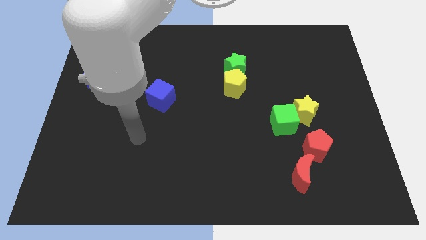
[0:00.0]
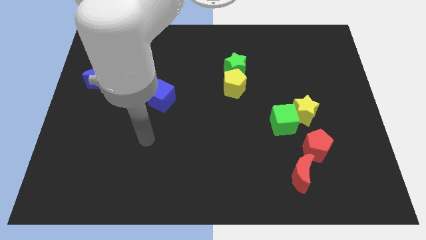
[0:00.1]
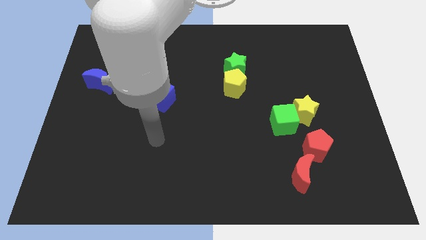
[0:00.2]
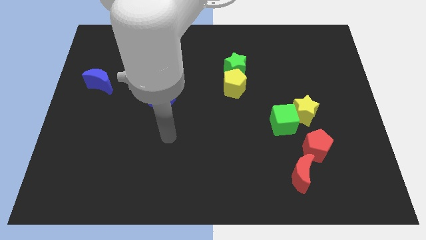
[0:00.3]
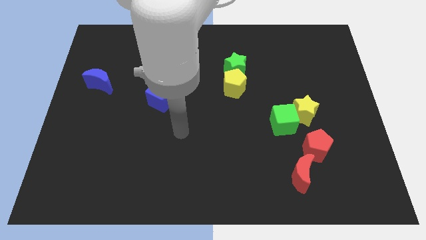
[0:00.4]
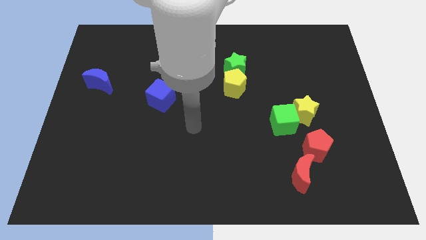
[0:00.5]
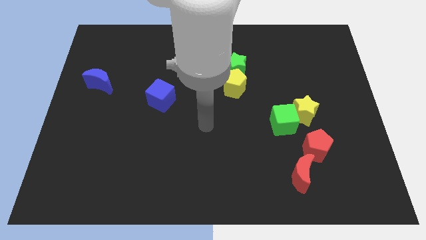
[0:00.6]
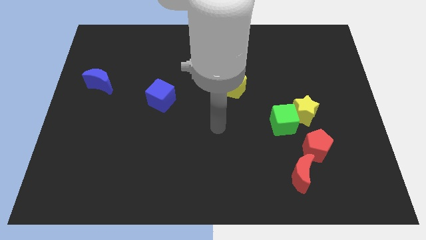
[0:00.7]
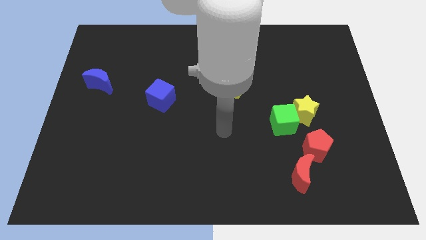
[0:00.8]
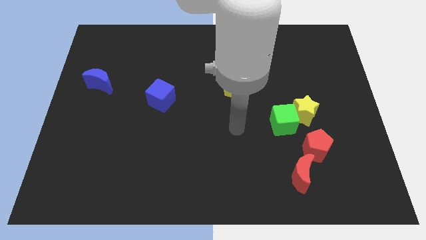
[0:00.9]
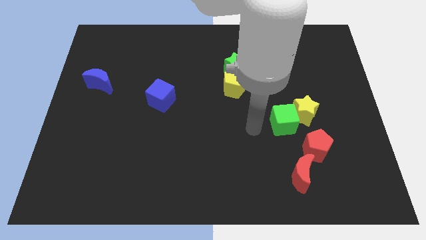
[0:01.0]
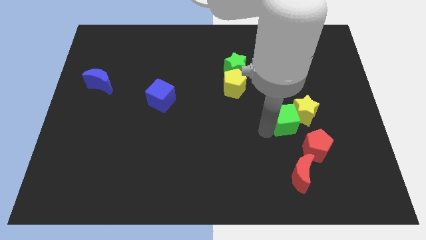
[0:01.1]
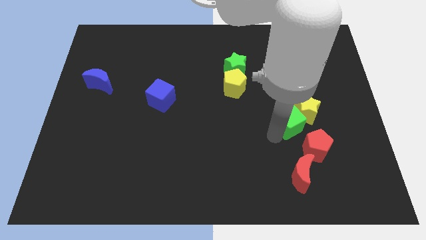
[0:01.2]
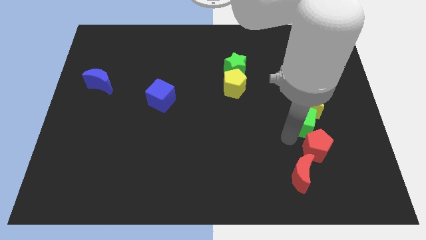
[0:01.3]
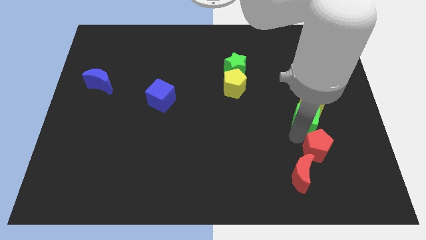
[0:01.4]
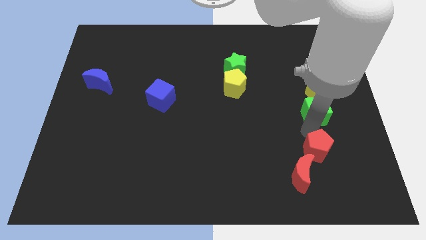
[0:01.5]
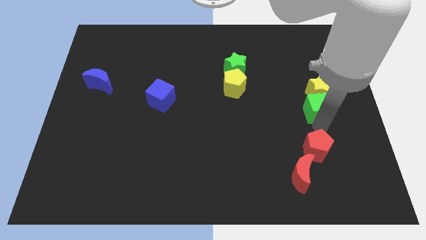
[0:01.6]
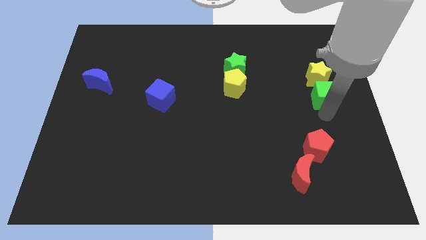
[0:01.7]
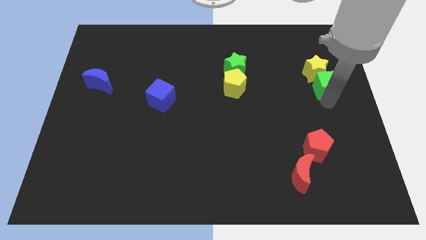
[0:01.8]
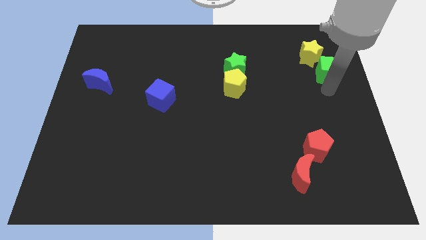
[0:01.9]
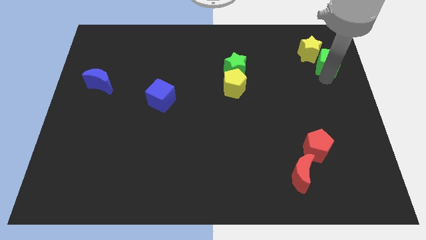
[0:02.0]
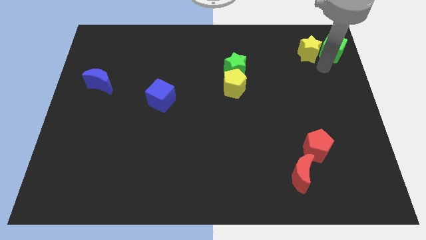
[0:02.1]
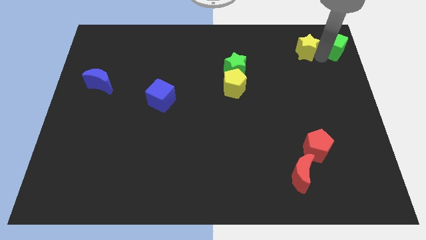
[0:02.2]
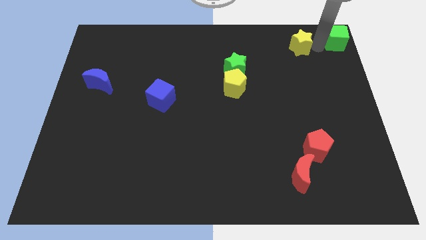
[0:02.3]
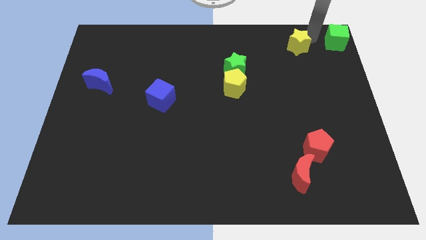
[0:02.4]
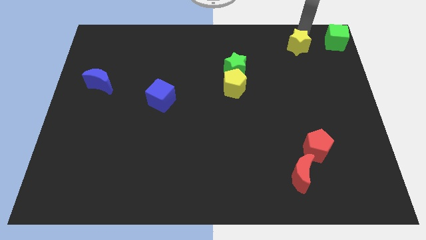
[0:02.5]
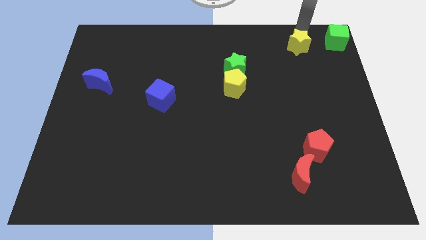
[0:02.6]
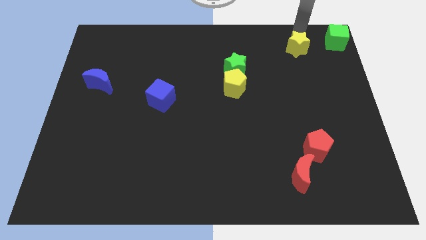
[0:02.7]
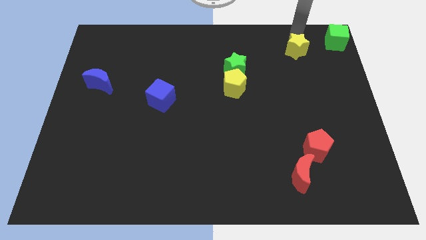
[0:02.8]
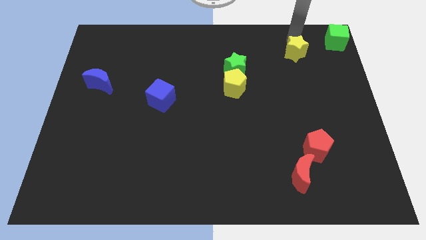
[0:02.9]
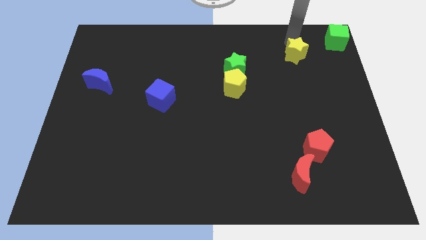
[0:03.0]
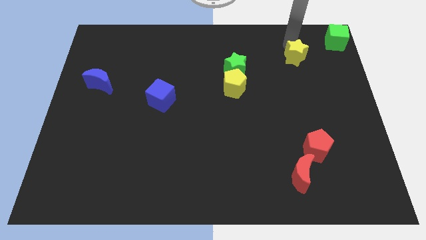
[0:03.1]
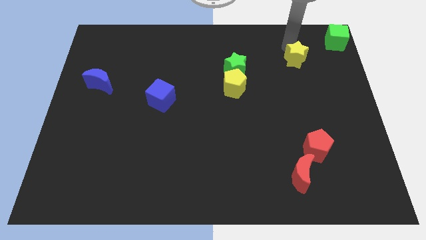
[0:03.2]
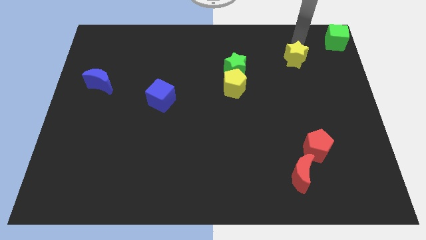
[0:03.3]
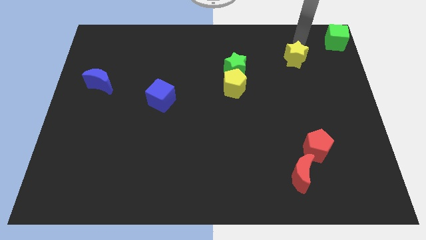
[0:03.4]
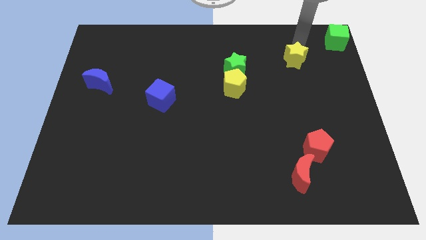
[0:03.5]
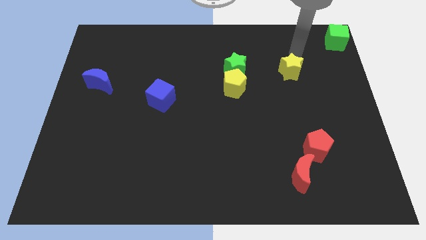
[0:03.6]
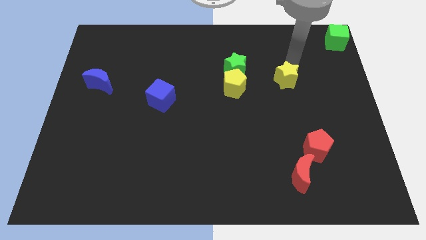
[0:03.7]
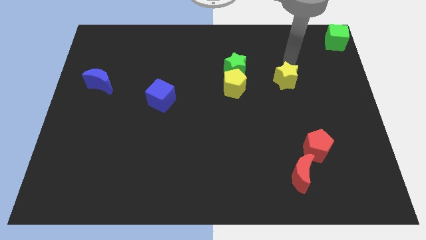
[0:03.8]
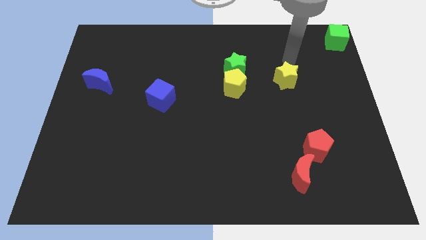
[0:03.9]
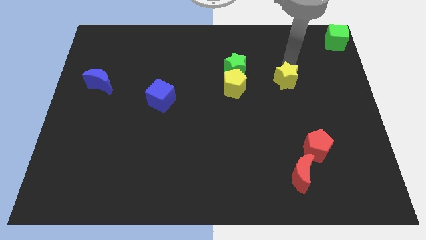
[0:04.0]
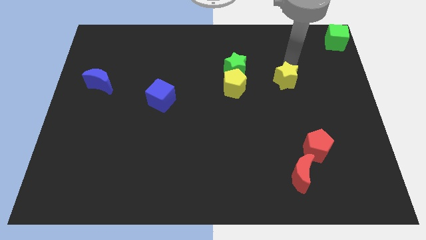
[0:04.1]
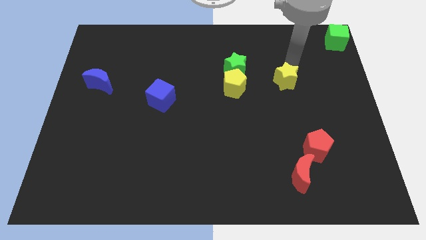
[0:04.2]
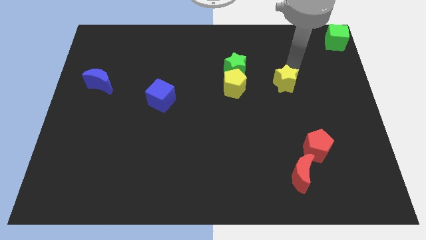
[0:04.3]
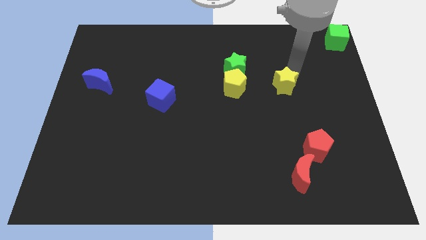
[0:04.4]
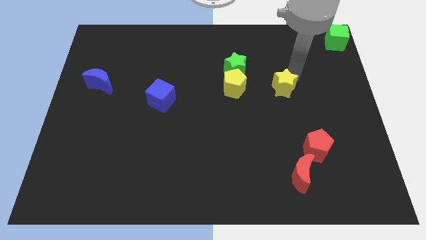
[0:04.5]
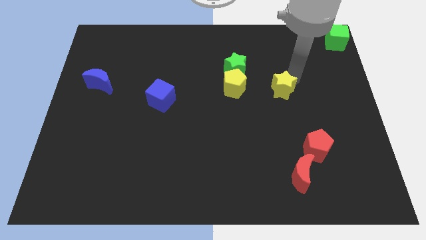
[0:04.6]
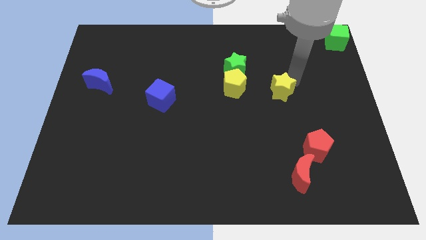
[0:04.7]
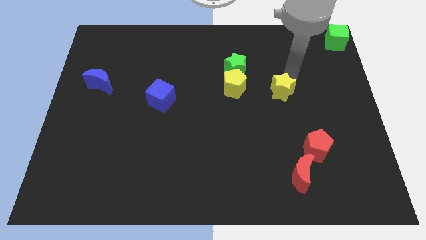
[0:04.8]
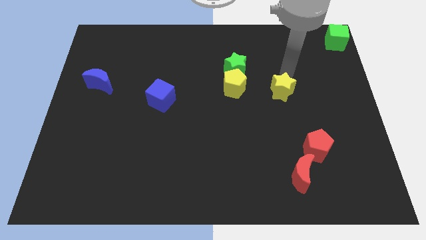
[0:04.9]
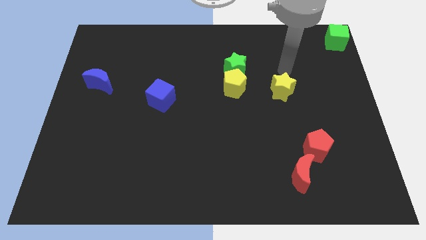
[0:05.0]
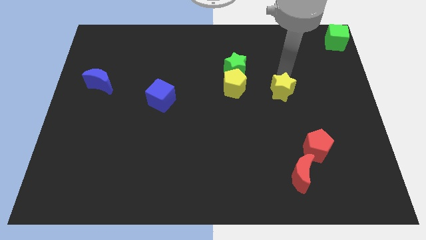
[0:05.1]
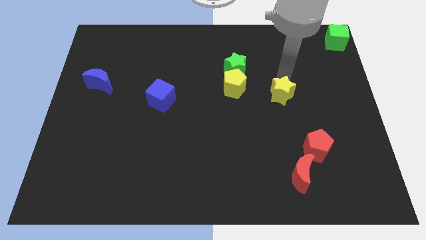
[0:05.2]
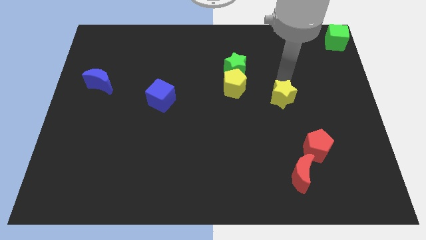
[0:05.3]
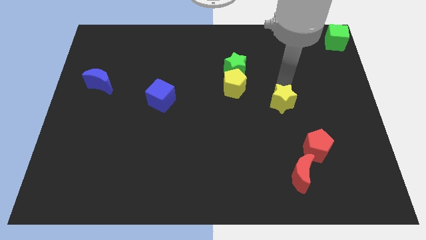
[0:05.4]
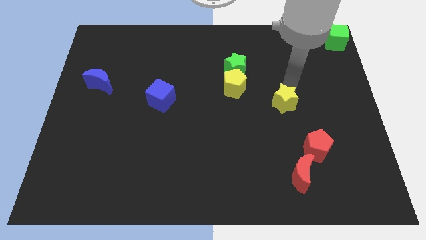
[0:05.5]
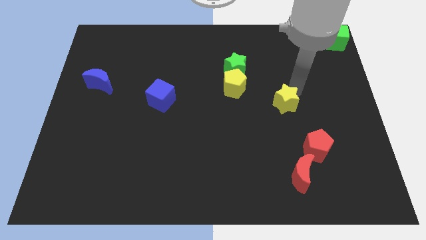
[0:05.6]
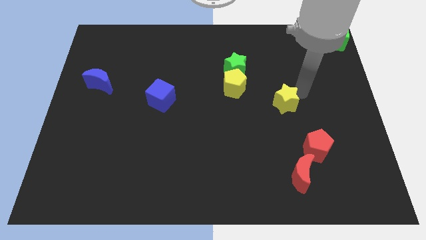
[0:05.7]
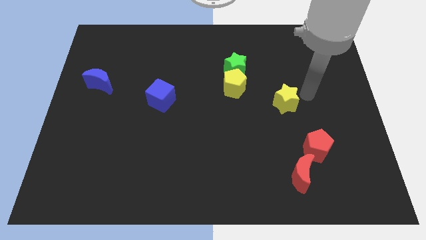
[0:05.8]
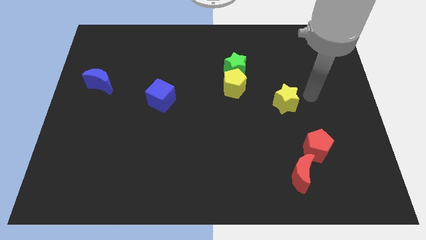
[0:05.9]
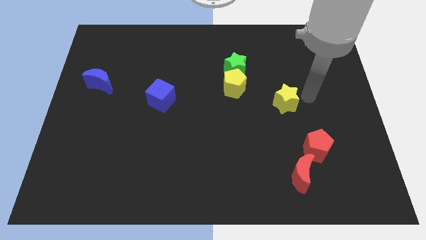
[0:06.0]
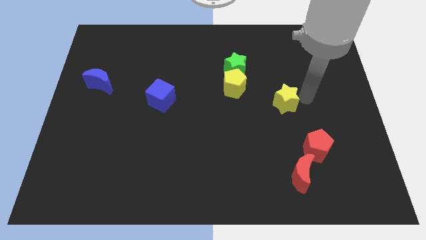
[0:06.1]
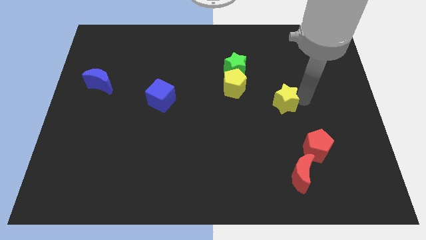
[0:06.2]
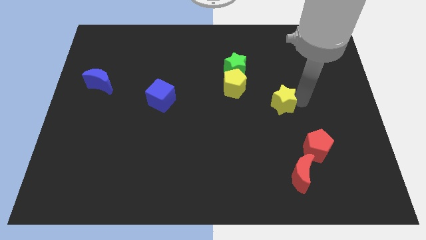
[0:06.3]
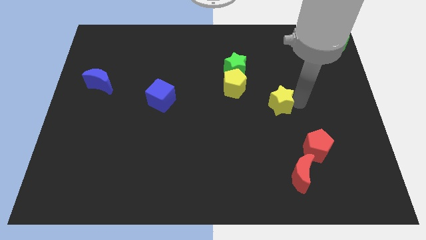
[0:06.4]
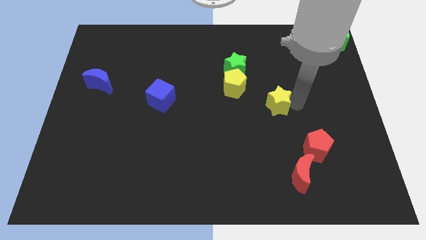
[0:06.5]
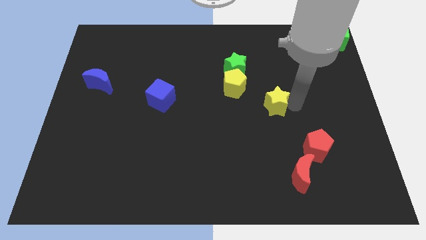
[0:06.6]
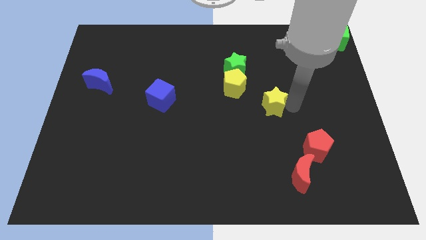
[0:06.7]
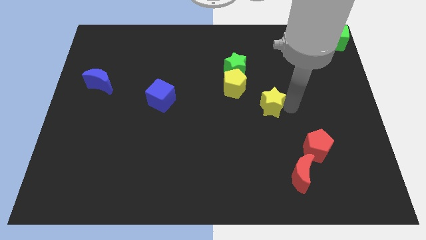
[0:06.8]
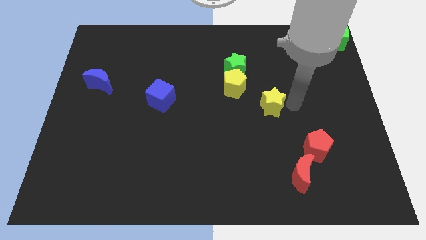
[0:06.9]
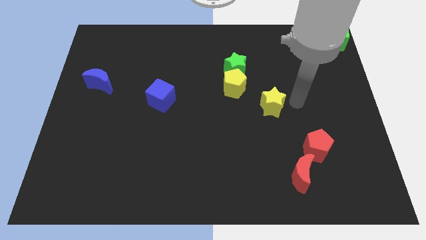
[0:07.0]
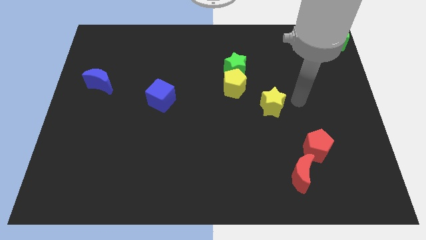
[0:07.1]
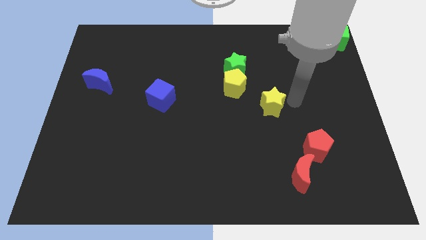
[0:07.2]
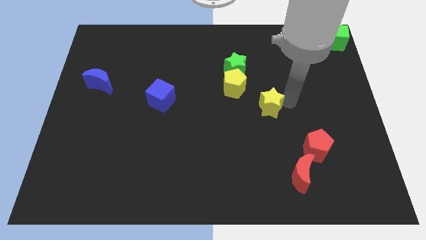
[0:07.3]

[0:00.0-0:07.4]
move the yellow star to the left somewhat

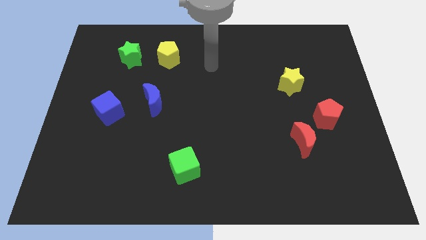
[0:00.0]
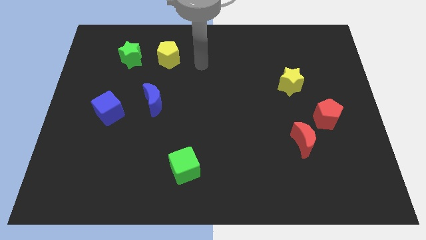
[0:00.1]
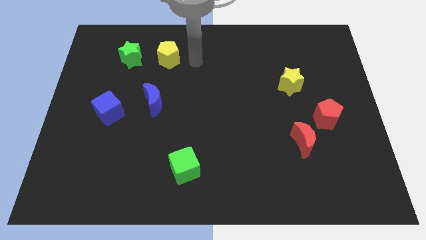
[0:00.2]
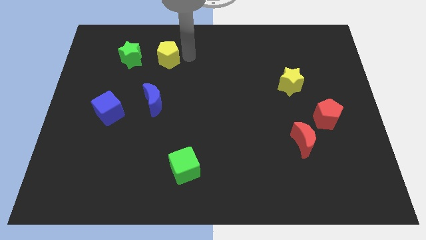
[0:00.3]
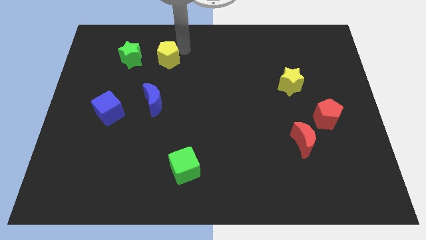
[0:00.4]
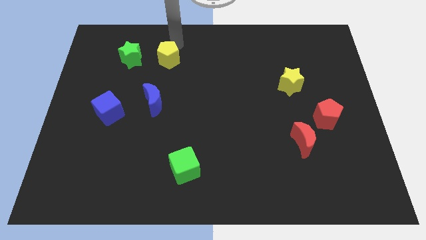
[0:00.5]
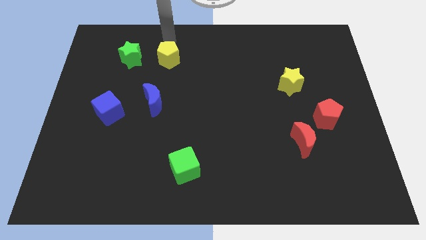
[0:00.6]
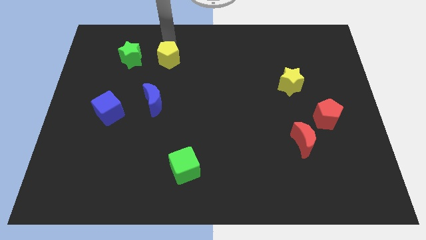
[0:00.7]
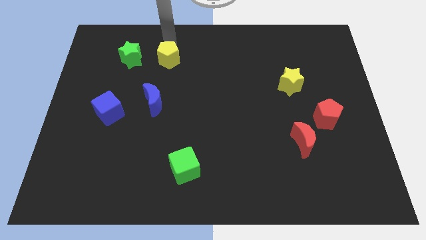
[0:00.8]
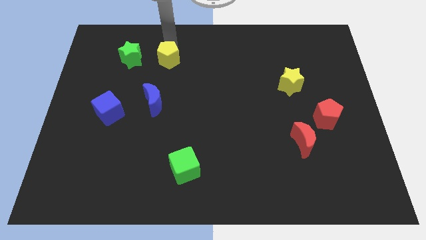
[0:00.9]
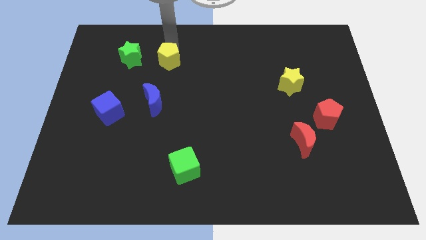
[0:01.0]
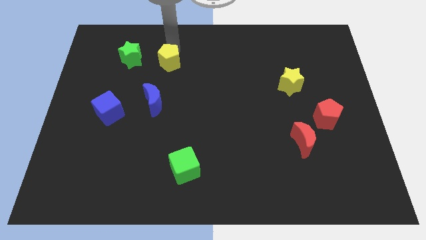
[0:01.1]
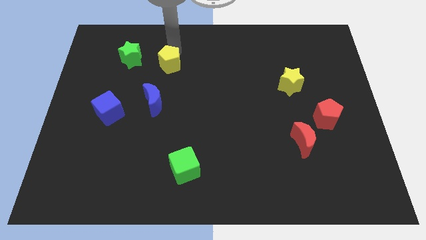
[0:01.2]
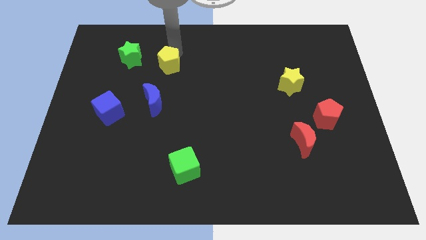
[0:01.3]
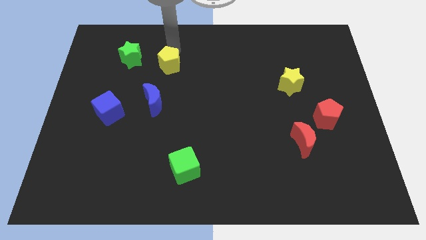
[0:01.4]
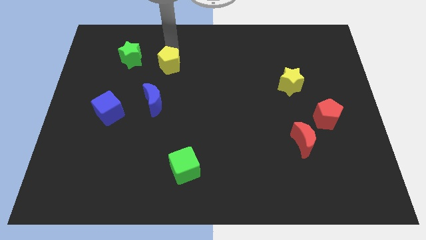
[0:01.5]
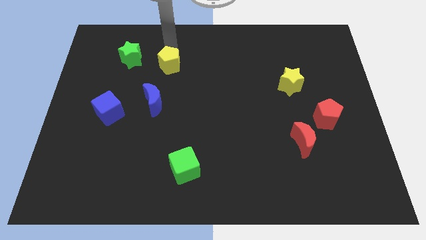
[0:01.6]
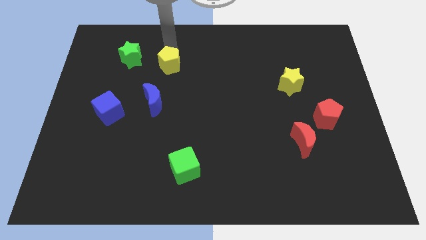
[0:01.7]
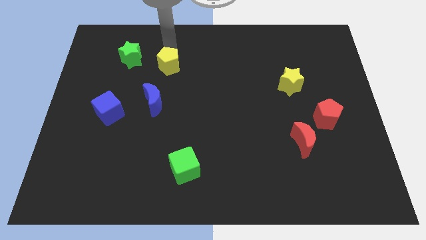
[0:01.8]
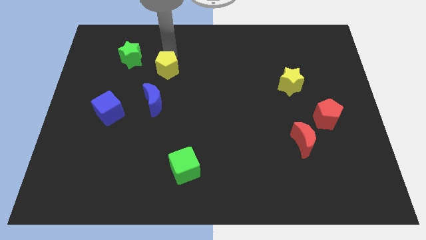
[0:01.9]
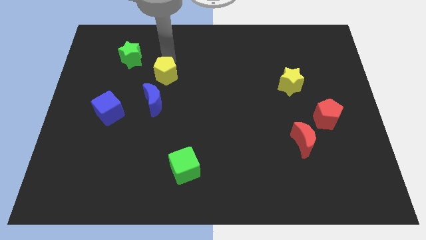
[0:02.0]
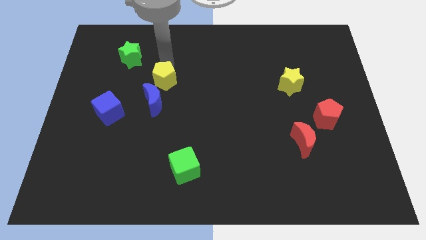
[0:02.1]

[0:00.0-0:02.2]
slightly push the yellow pentagon down
